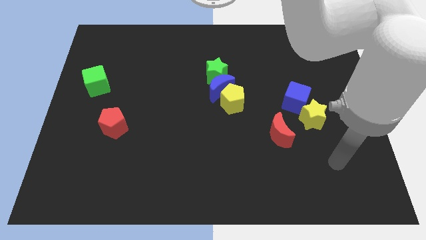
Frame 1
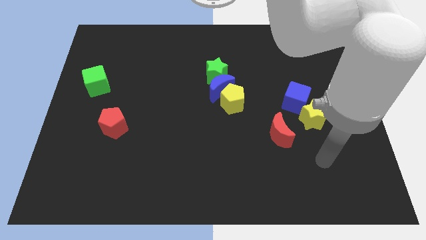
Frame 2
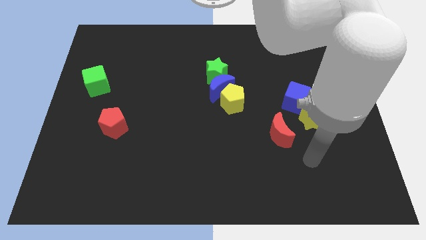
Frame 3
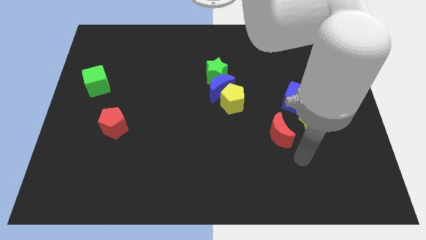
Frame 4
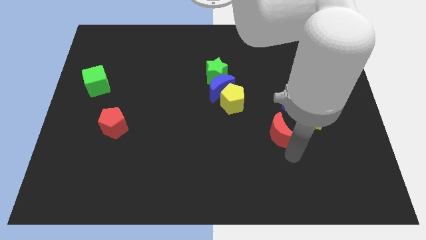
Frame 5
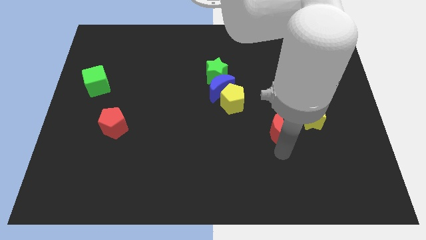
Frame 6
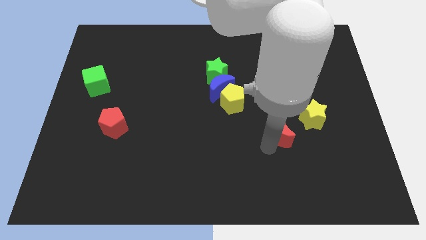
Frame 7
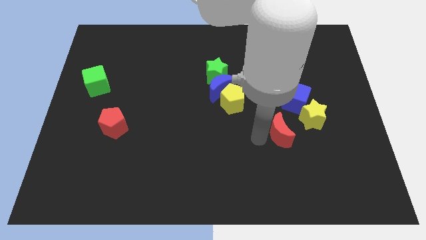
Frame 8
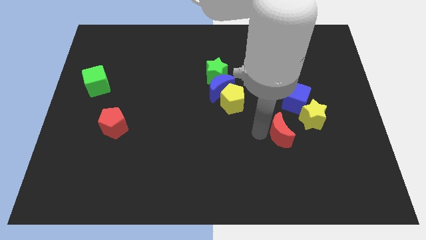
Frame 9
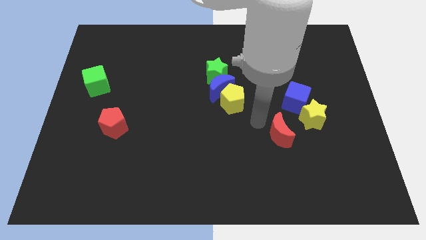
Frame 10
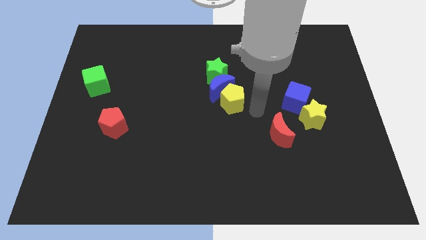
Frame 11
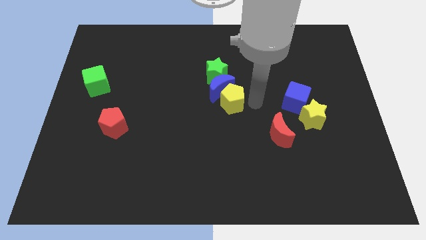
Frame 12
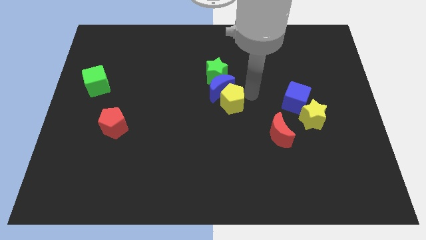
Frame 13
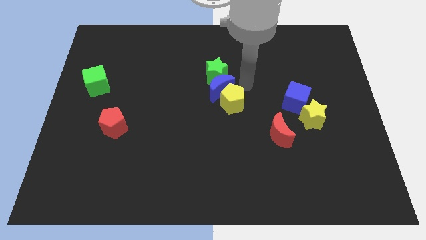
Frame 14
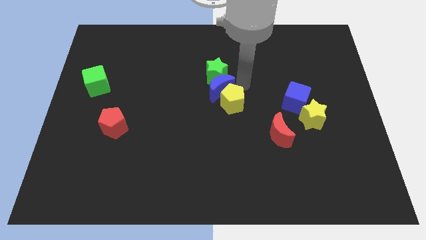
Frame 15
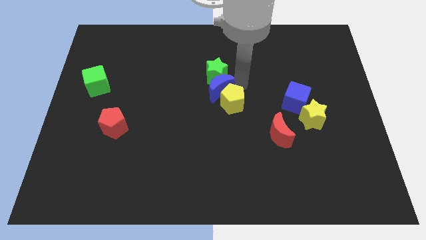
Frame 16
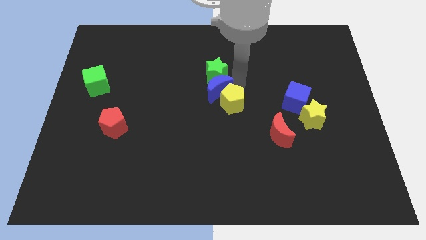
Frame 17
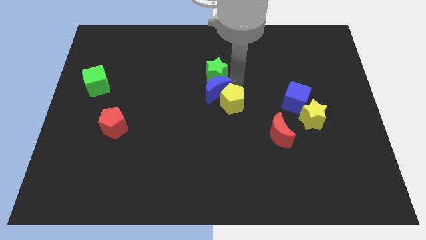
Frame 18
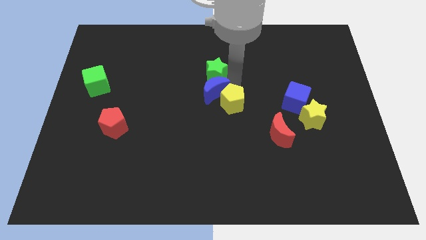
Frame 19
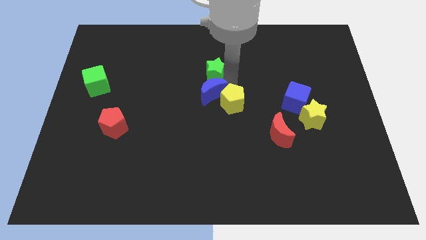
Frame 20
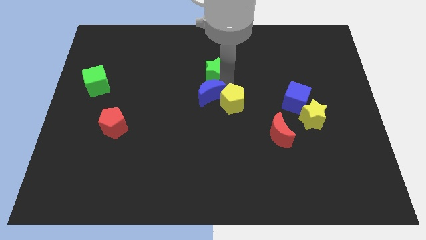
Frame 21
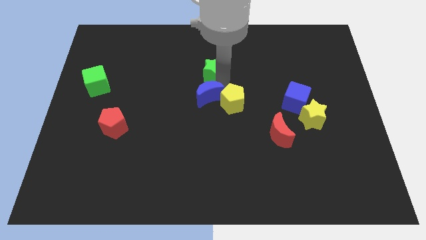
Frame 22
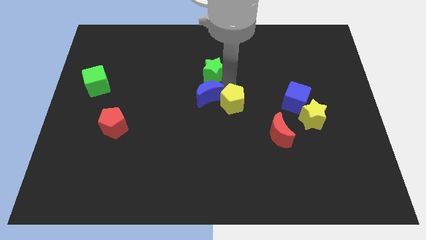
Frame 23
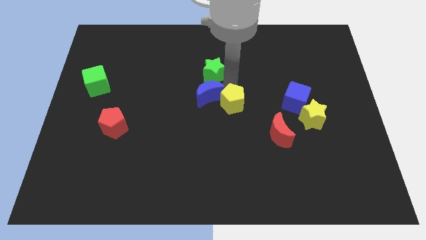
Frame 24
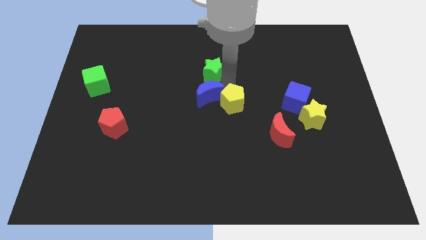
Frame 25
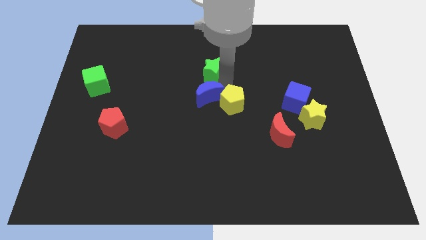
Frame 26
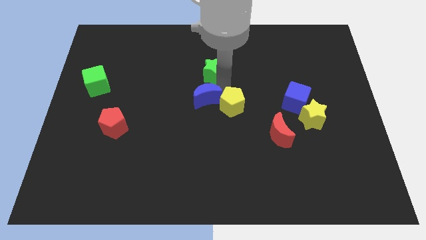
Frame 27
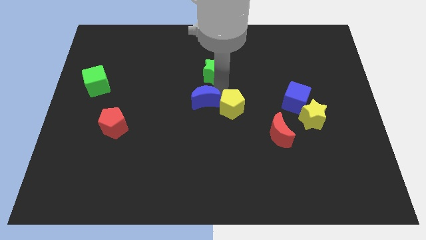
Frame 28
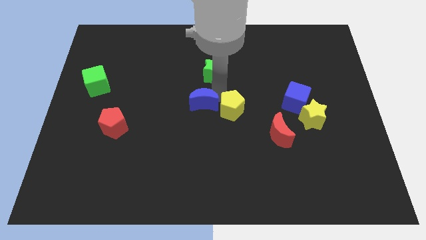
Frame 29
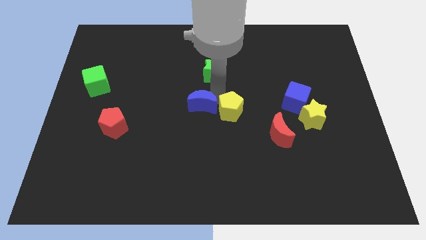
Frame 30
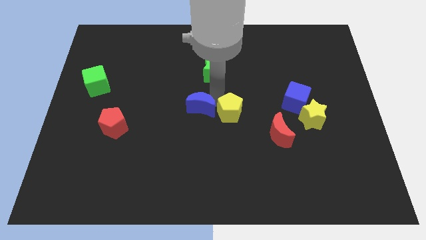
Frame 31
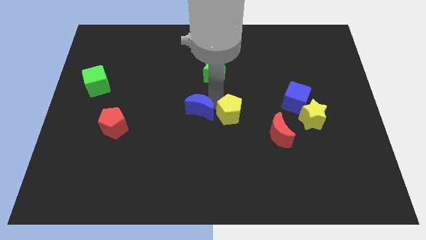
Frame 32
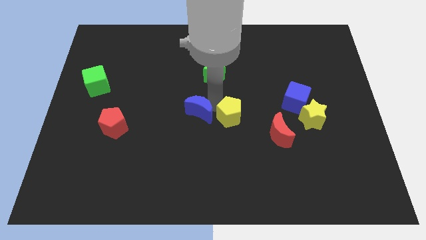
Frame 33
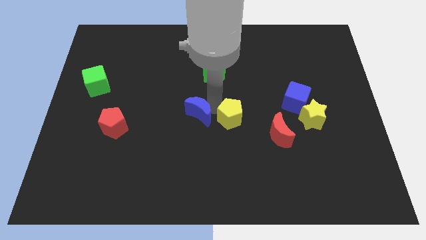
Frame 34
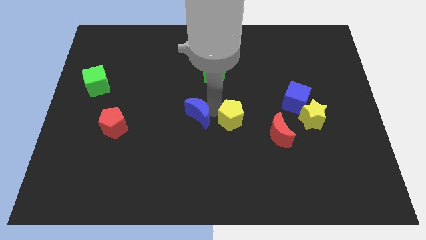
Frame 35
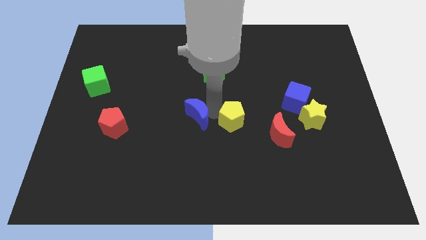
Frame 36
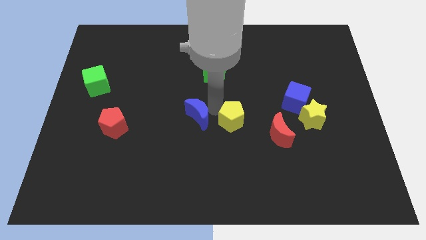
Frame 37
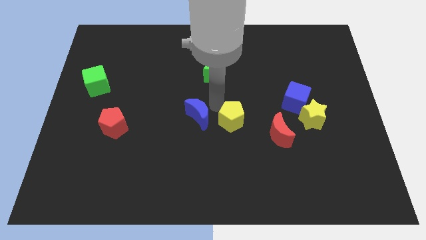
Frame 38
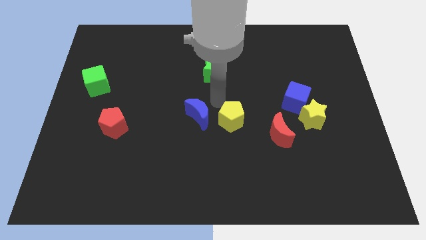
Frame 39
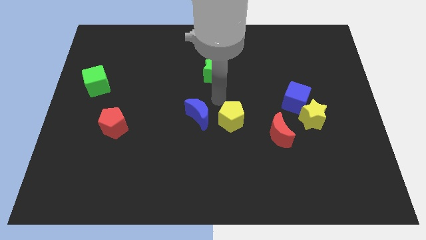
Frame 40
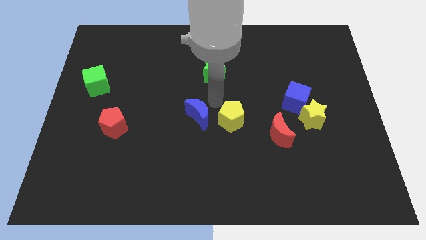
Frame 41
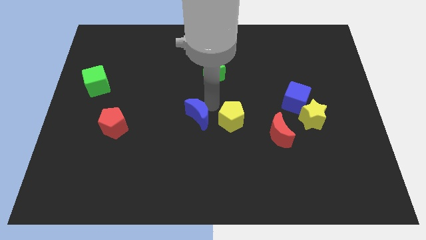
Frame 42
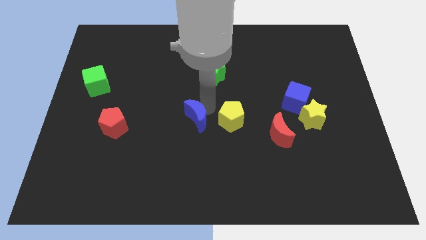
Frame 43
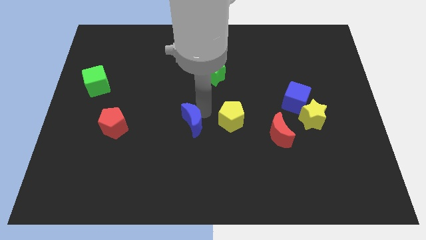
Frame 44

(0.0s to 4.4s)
move the blue moon away from the yellow pentagon and green star

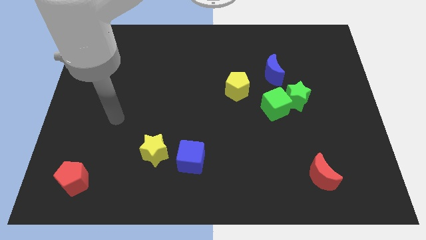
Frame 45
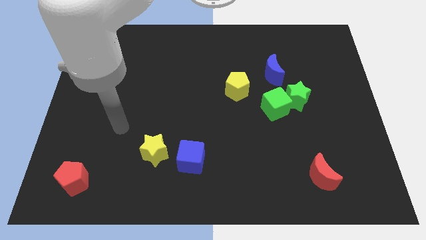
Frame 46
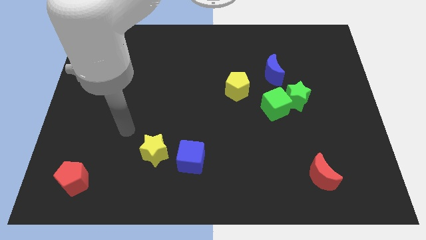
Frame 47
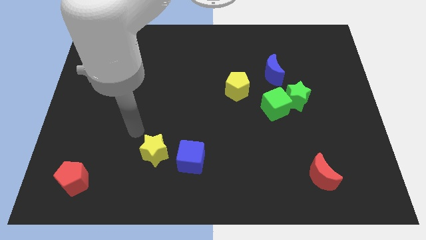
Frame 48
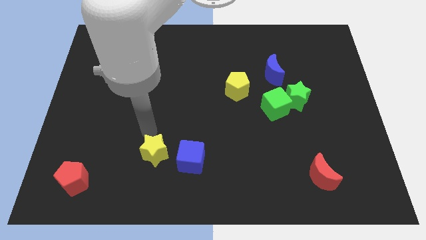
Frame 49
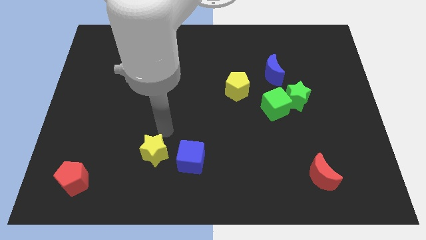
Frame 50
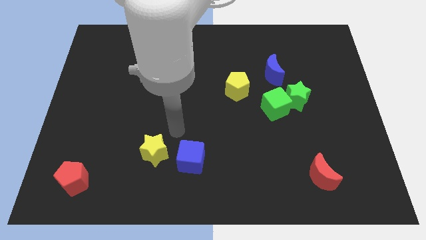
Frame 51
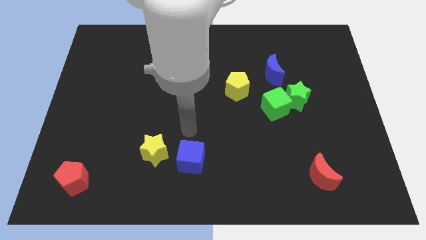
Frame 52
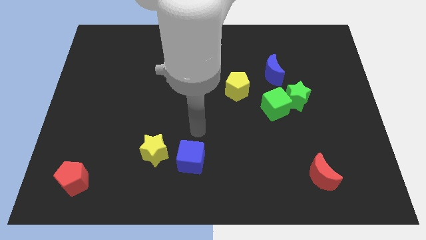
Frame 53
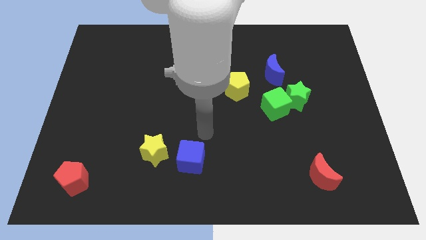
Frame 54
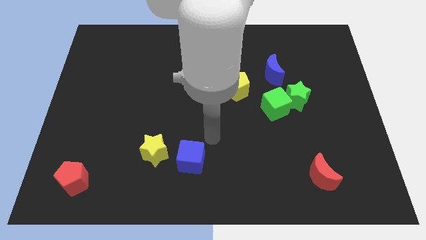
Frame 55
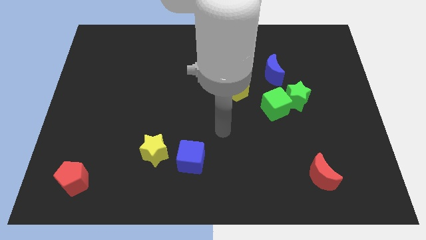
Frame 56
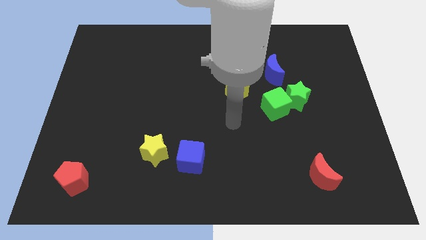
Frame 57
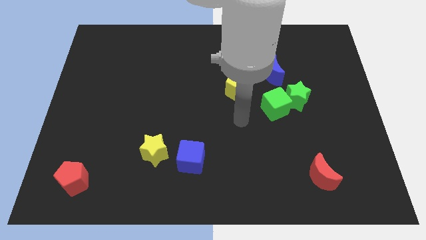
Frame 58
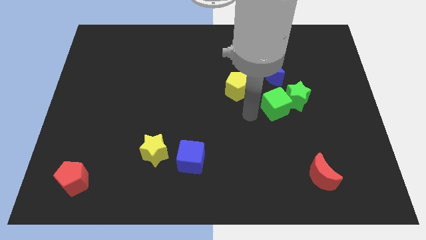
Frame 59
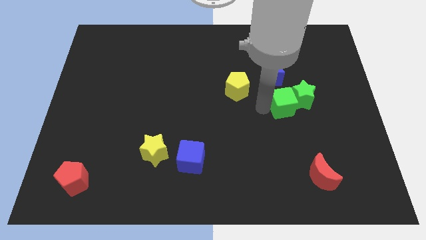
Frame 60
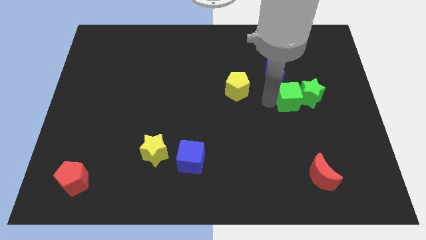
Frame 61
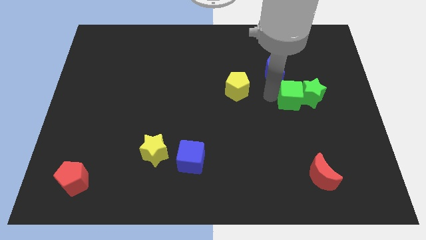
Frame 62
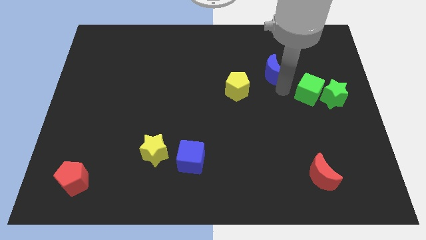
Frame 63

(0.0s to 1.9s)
move the green star away from the green cube and blue moon

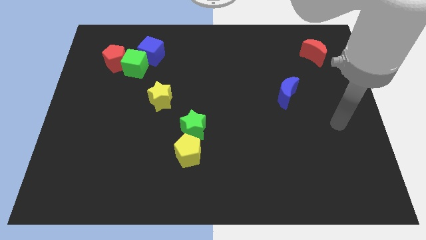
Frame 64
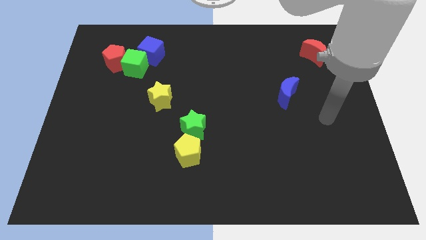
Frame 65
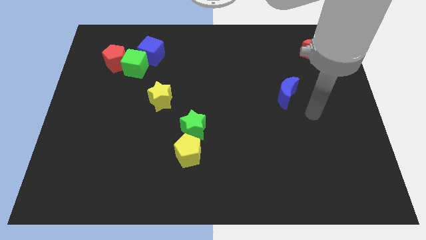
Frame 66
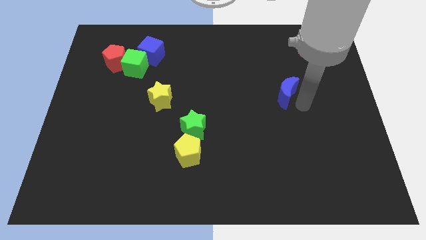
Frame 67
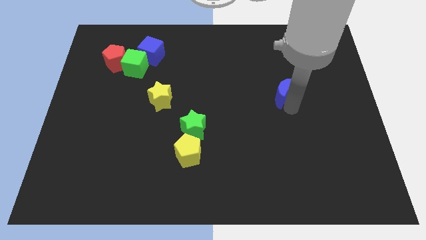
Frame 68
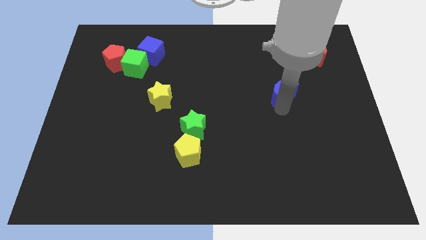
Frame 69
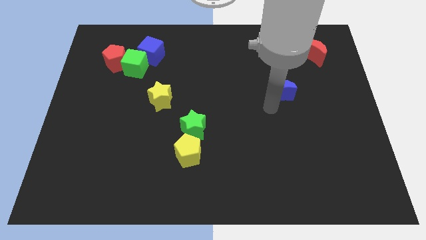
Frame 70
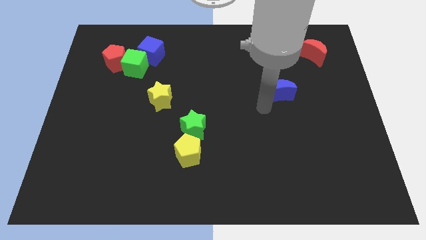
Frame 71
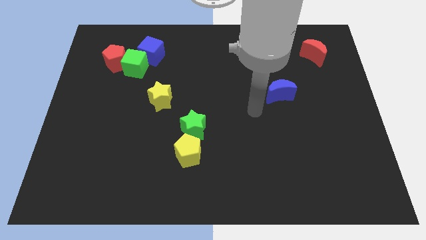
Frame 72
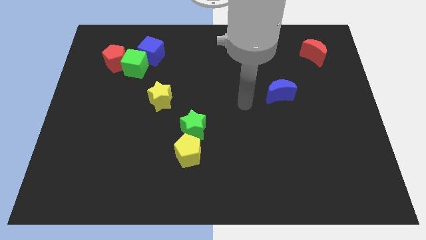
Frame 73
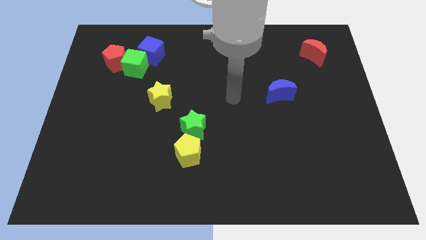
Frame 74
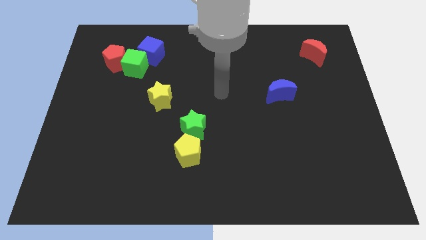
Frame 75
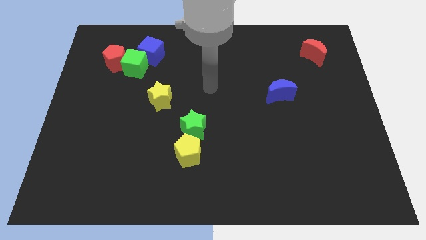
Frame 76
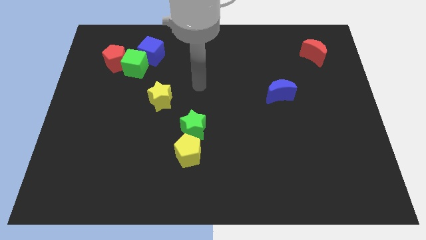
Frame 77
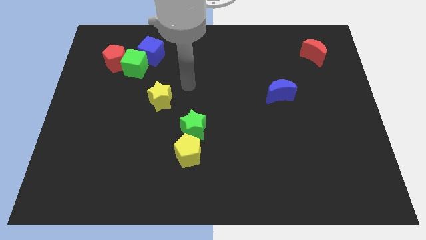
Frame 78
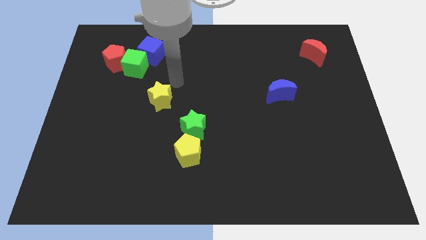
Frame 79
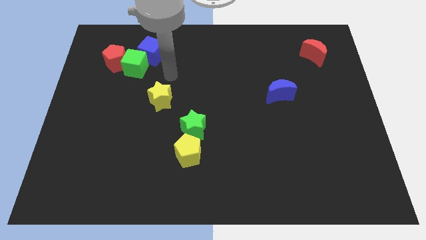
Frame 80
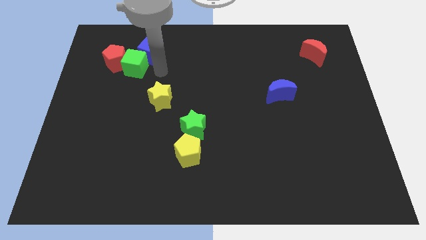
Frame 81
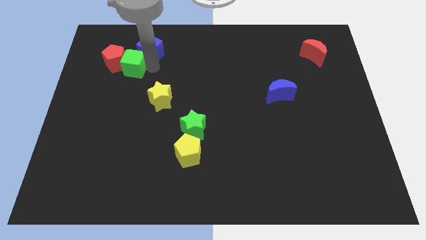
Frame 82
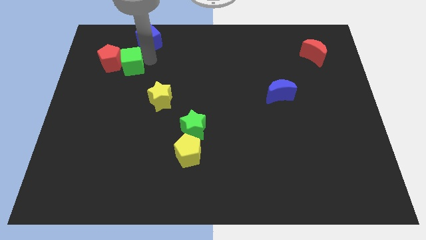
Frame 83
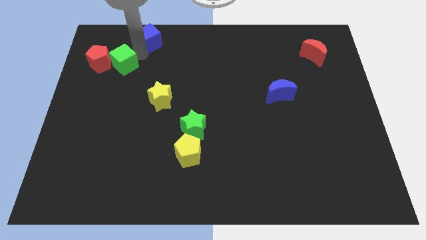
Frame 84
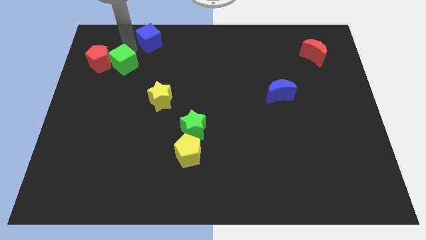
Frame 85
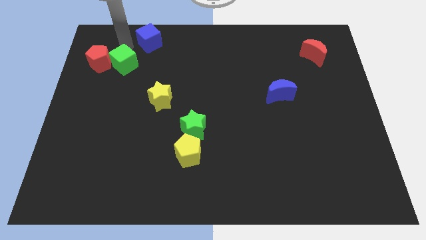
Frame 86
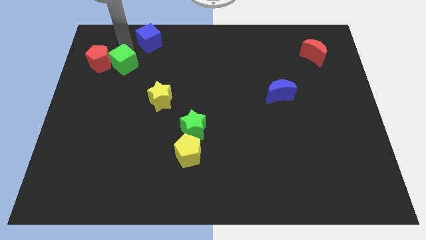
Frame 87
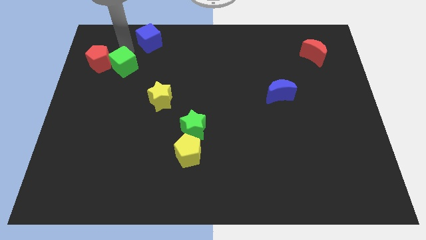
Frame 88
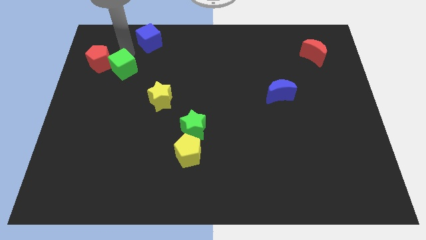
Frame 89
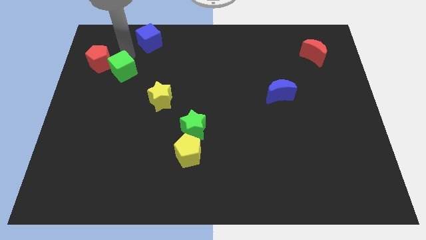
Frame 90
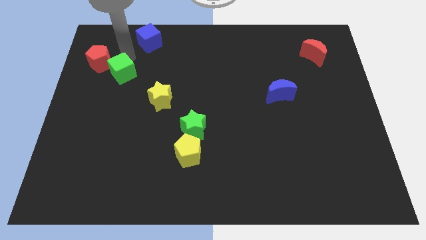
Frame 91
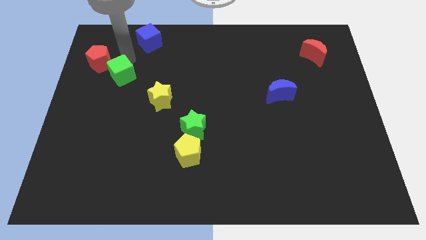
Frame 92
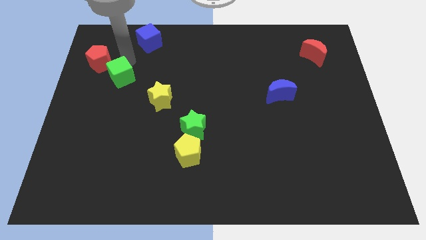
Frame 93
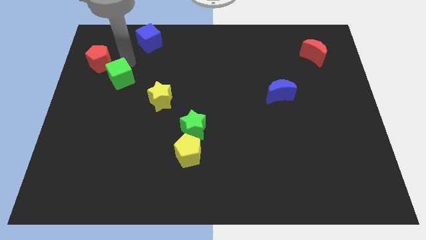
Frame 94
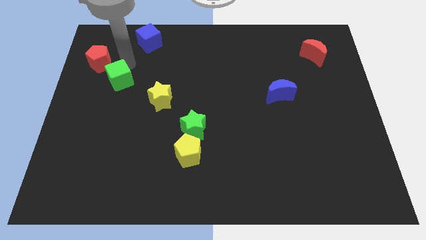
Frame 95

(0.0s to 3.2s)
separate the green cube from the red pentagon and blue cube
